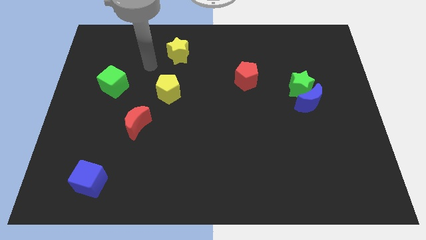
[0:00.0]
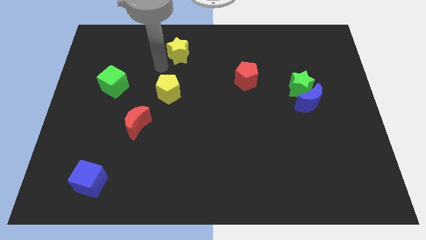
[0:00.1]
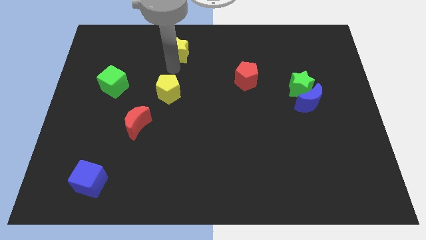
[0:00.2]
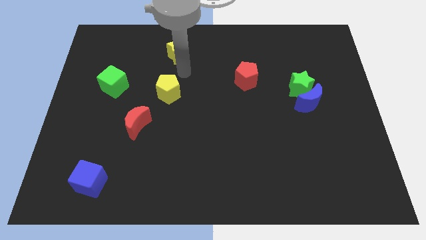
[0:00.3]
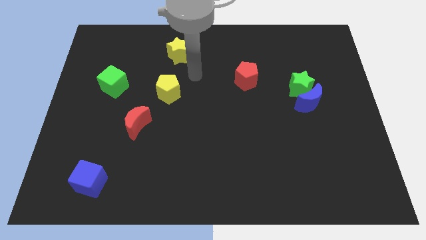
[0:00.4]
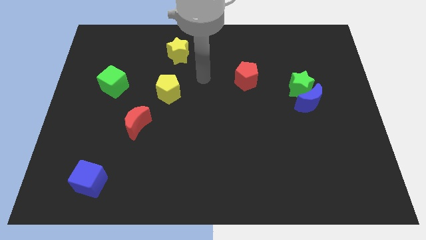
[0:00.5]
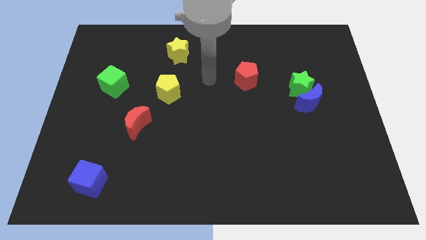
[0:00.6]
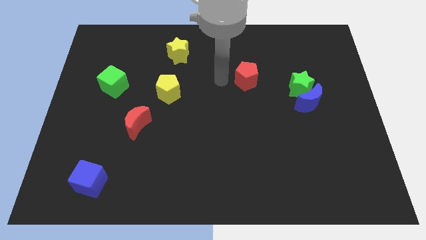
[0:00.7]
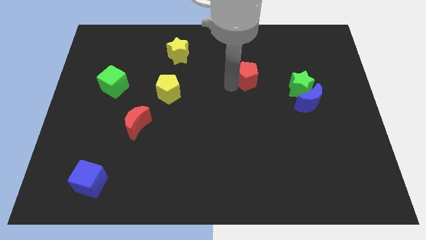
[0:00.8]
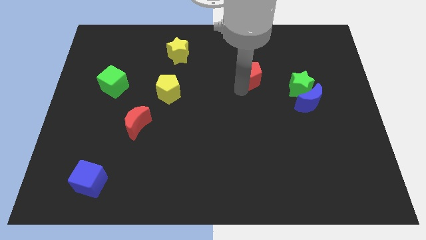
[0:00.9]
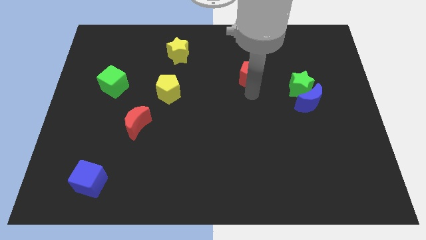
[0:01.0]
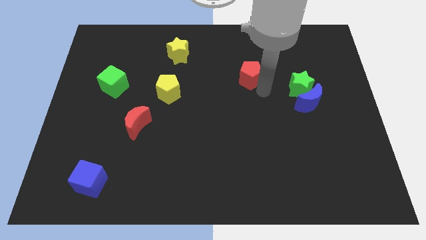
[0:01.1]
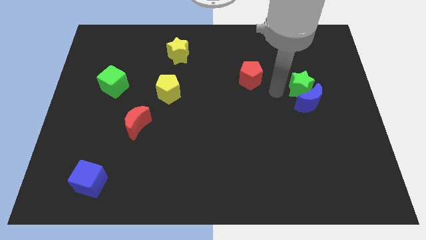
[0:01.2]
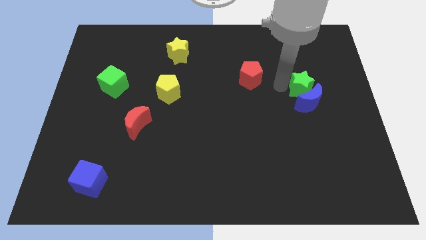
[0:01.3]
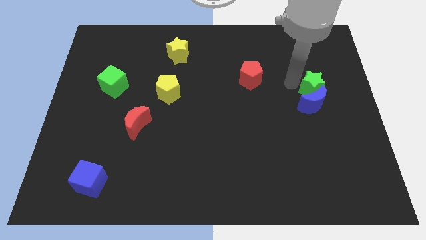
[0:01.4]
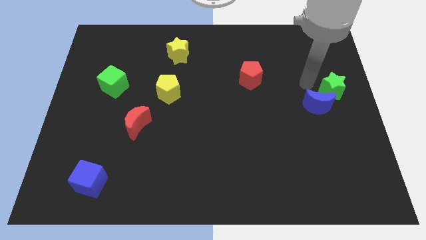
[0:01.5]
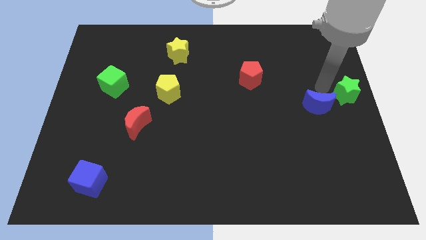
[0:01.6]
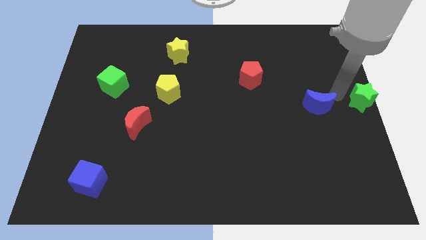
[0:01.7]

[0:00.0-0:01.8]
move the blue moon away from the green star

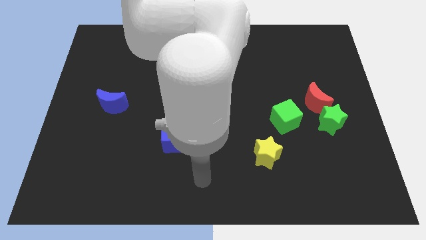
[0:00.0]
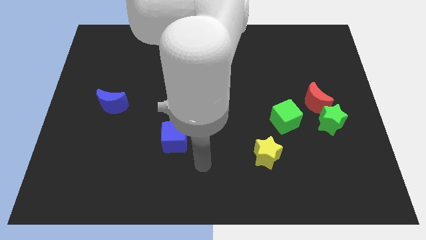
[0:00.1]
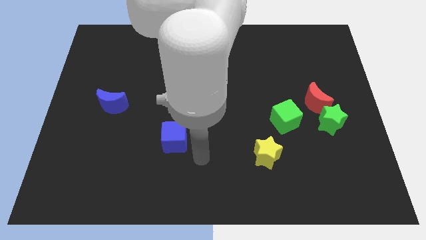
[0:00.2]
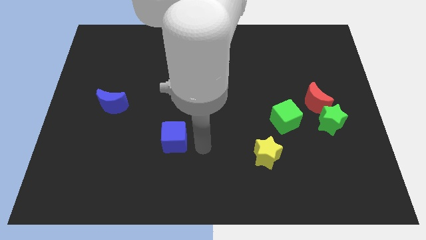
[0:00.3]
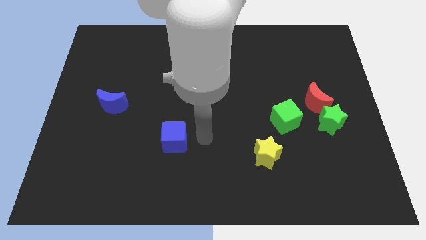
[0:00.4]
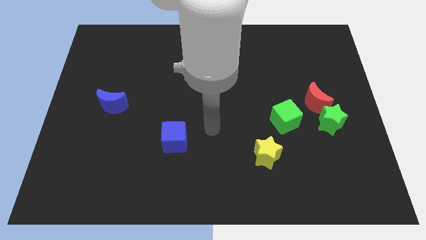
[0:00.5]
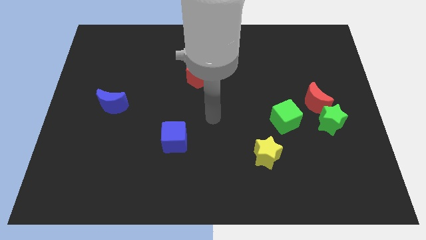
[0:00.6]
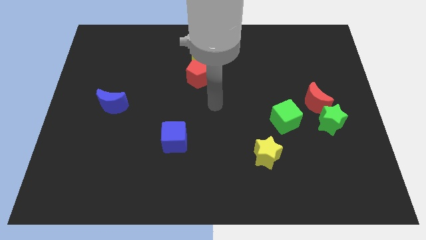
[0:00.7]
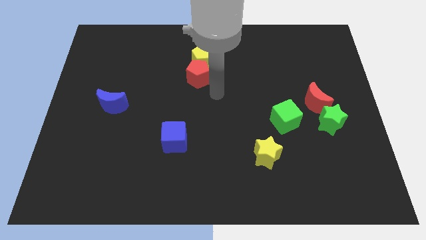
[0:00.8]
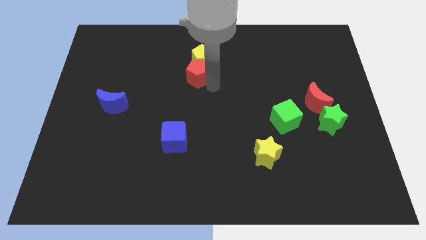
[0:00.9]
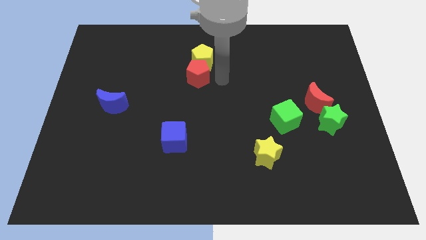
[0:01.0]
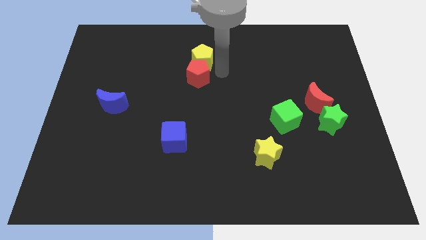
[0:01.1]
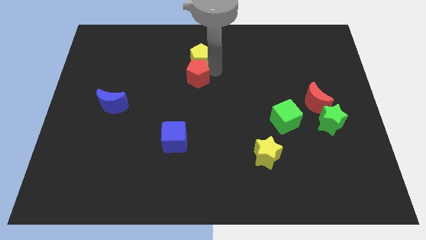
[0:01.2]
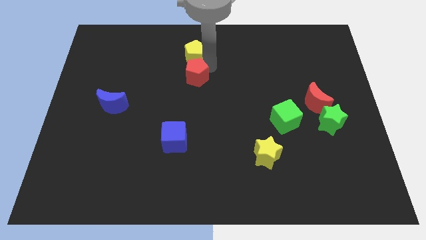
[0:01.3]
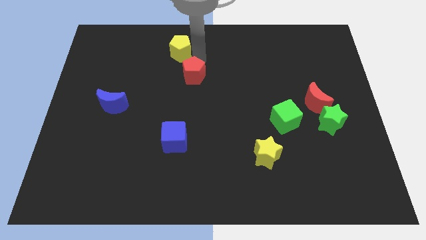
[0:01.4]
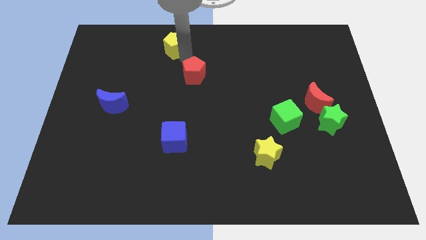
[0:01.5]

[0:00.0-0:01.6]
pull the red pentagon apart from the yellow pentagon

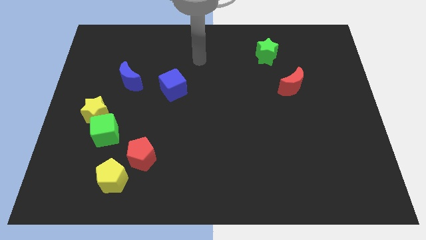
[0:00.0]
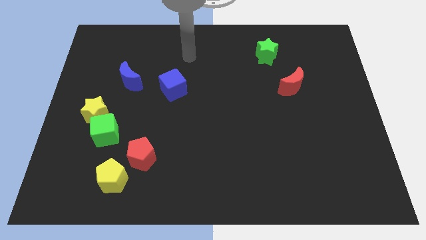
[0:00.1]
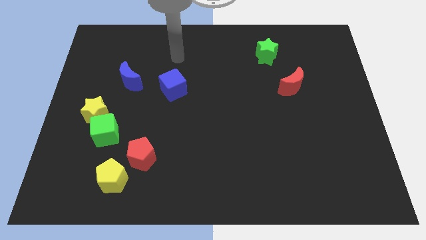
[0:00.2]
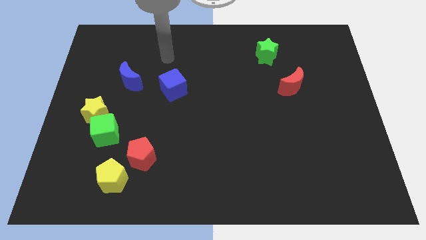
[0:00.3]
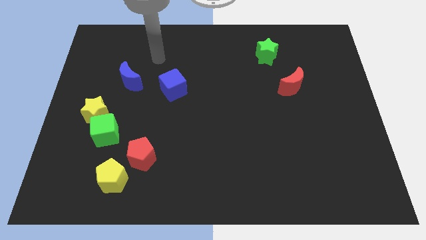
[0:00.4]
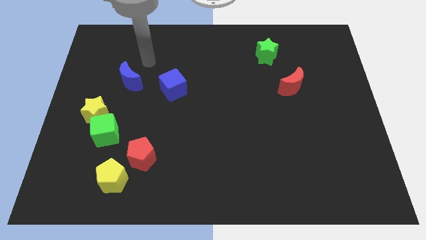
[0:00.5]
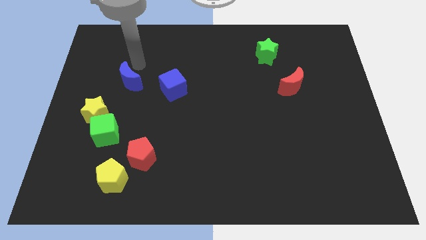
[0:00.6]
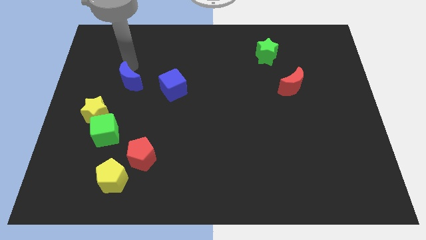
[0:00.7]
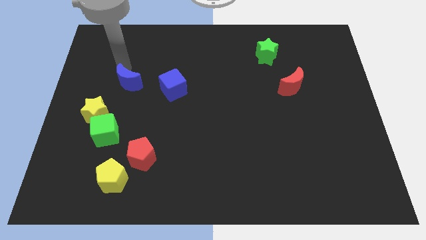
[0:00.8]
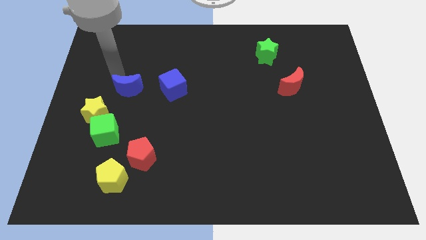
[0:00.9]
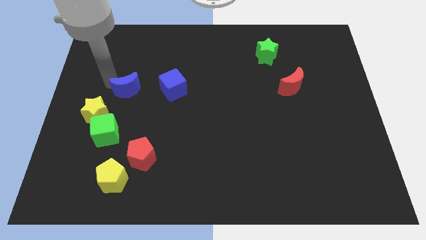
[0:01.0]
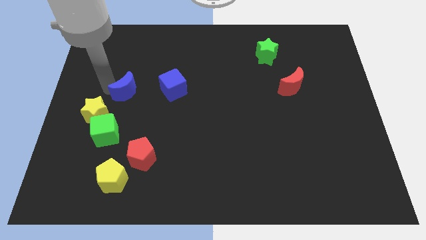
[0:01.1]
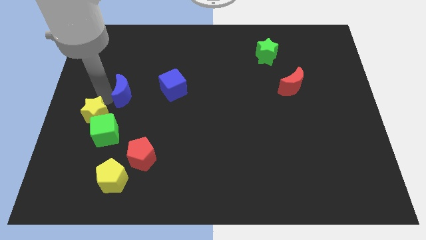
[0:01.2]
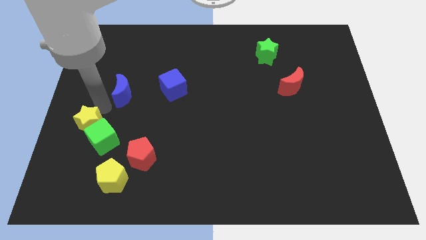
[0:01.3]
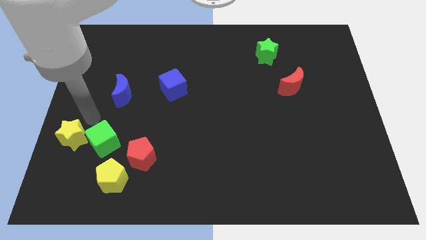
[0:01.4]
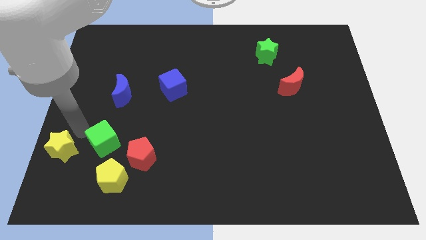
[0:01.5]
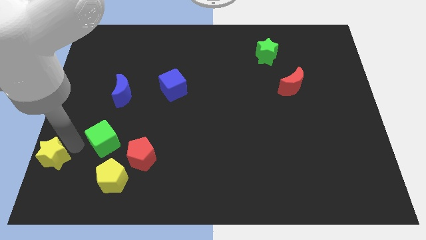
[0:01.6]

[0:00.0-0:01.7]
pull the green cube apart from the yellow star

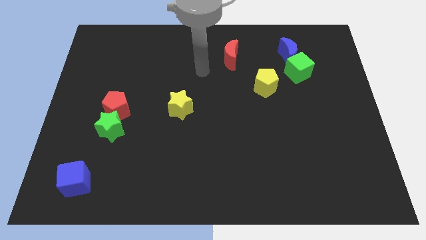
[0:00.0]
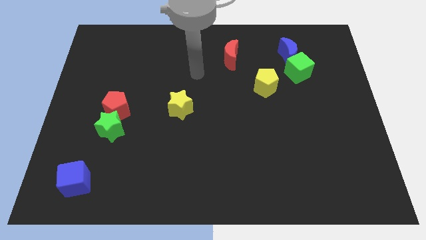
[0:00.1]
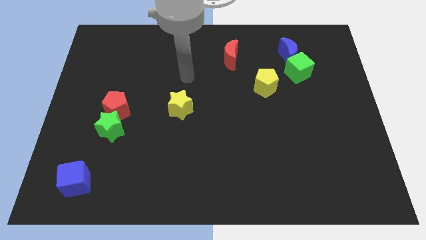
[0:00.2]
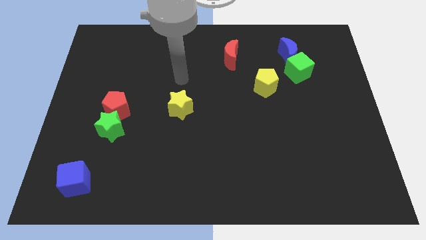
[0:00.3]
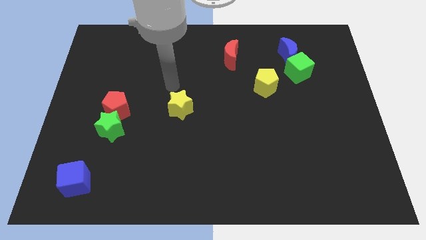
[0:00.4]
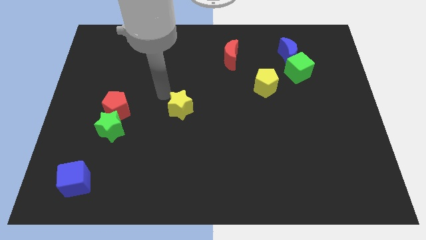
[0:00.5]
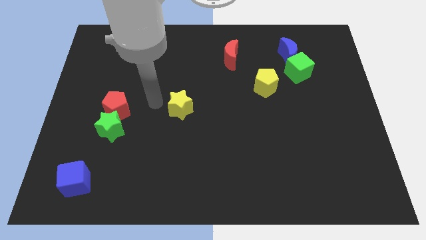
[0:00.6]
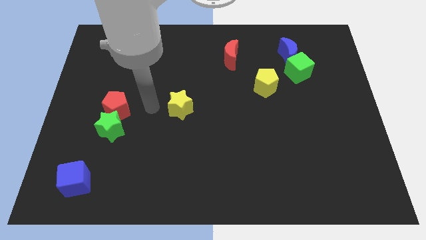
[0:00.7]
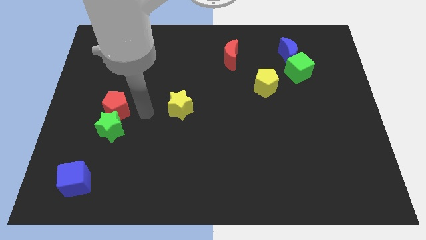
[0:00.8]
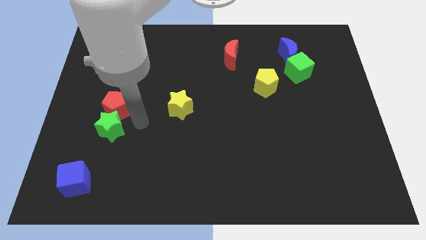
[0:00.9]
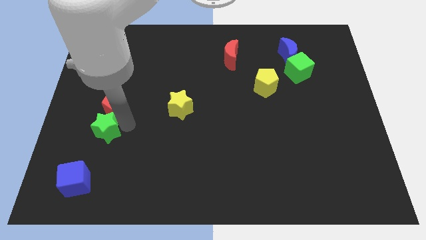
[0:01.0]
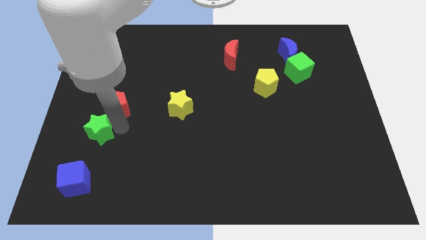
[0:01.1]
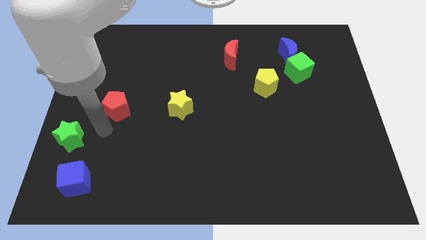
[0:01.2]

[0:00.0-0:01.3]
move the red pentagon away from the green star

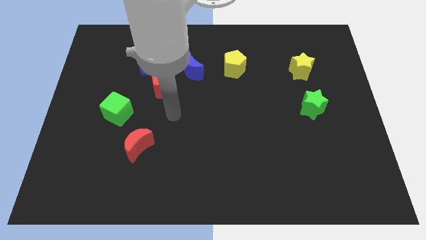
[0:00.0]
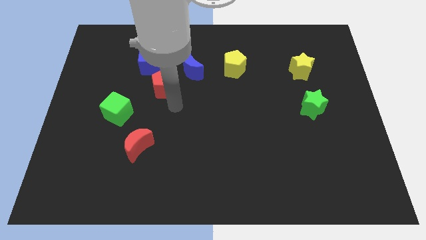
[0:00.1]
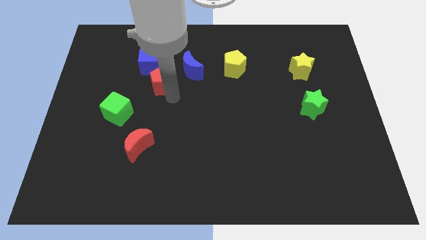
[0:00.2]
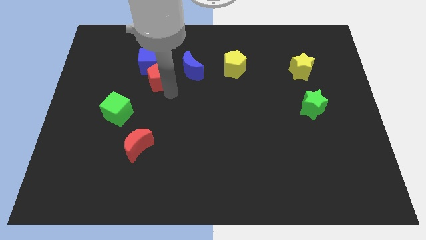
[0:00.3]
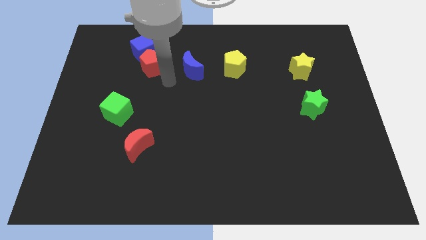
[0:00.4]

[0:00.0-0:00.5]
pull the blue moon apart from the red pentagon

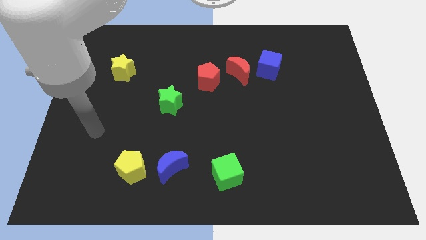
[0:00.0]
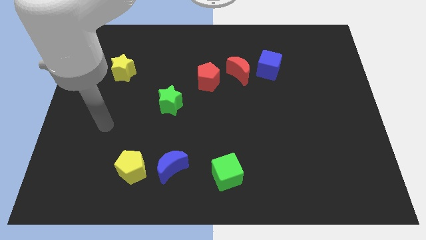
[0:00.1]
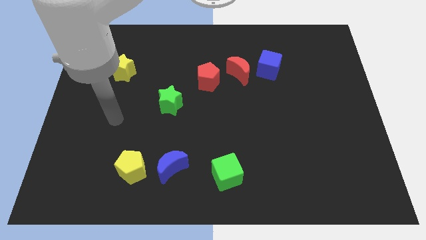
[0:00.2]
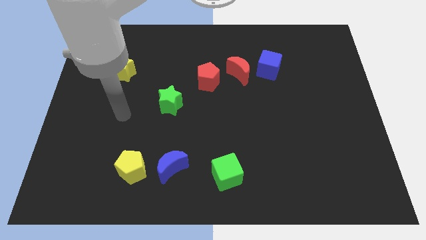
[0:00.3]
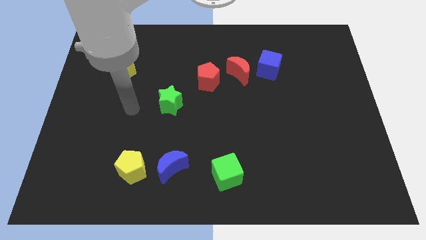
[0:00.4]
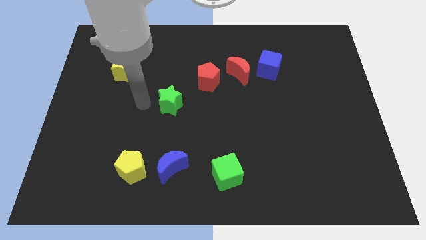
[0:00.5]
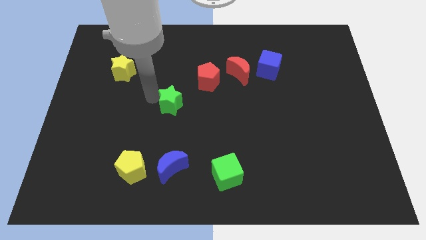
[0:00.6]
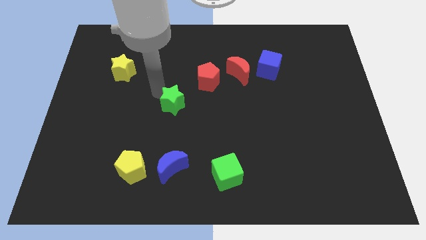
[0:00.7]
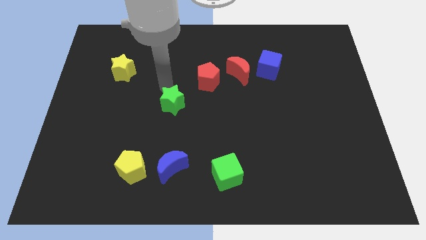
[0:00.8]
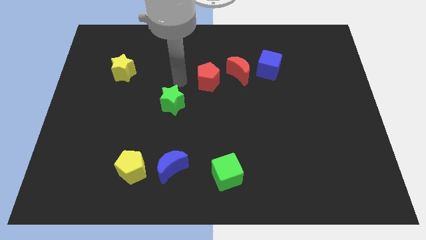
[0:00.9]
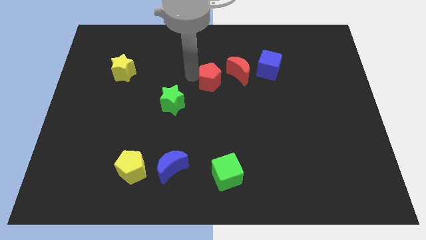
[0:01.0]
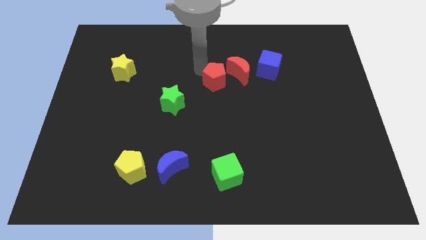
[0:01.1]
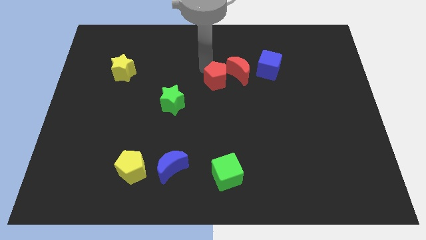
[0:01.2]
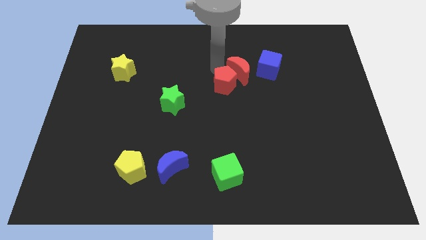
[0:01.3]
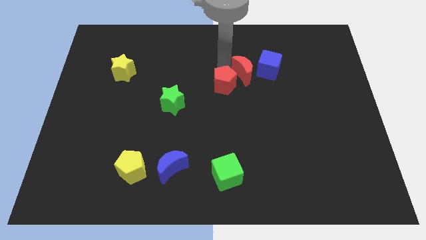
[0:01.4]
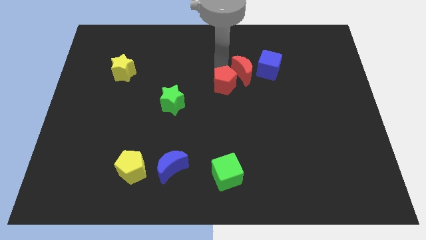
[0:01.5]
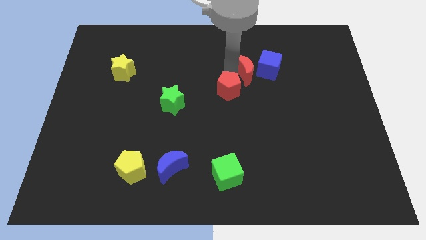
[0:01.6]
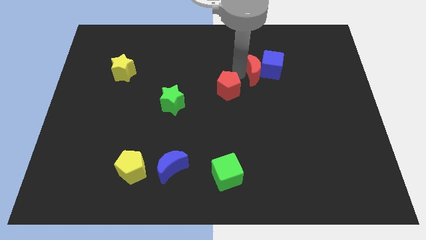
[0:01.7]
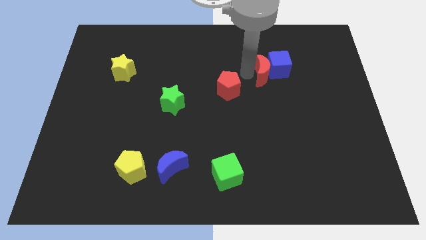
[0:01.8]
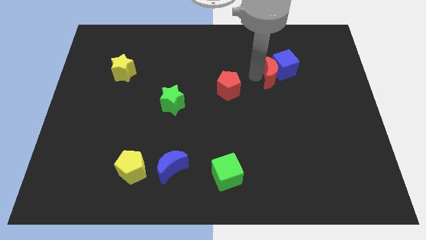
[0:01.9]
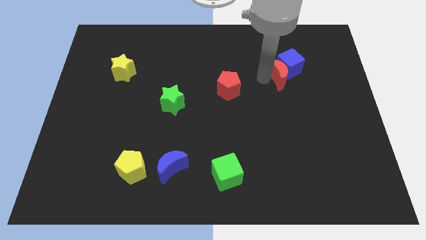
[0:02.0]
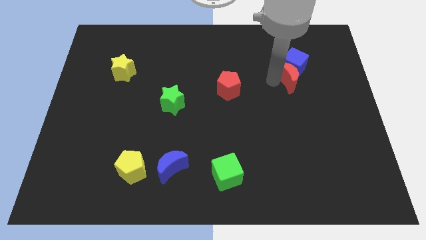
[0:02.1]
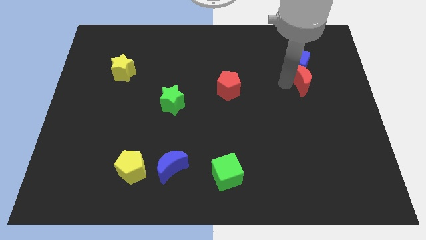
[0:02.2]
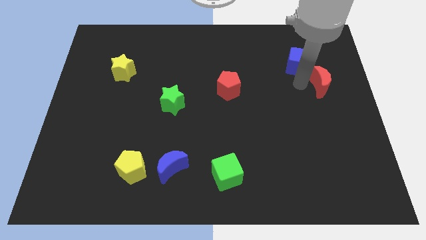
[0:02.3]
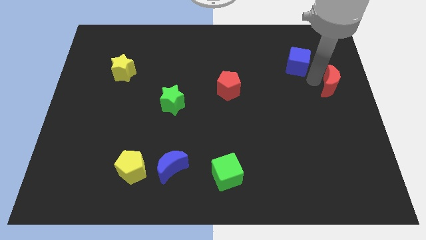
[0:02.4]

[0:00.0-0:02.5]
move the blue cube away from the red moon
